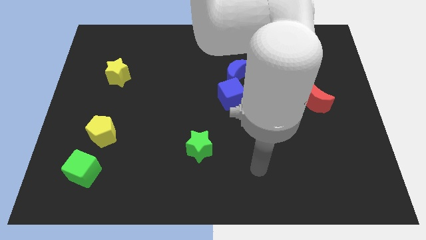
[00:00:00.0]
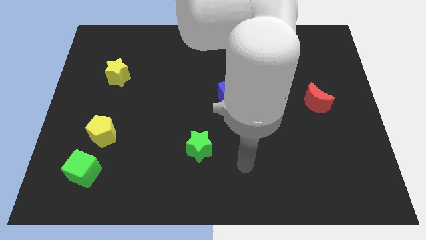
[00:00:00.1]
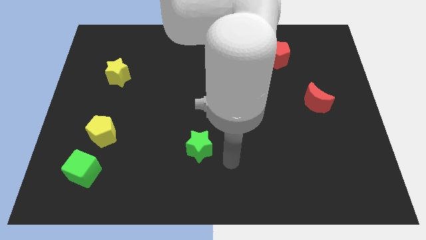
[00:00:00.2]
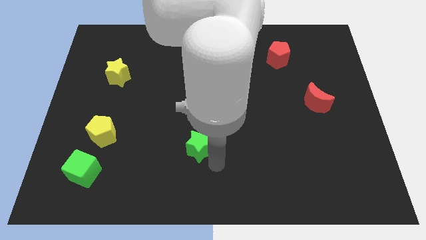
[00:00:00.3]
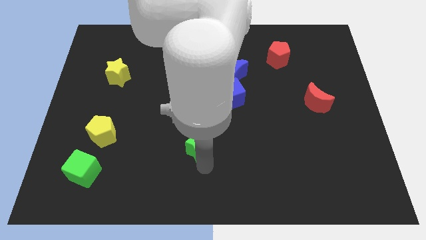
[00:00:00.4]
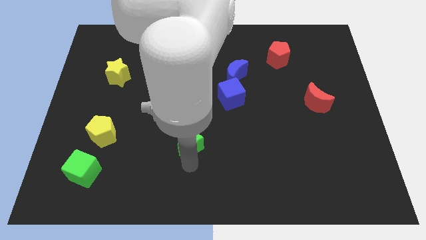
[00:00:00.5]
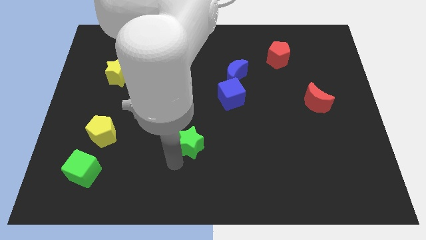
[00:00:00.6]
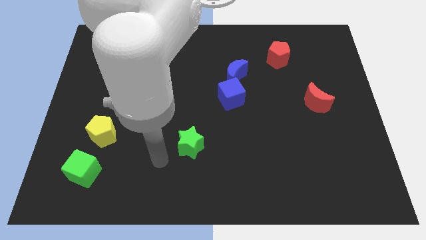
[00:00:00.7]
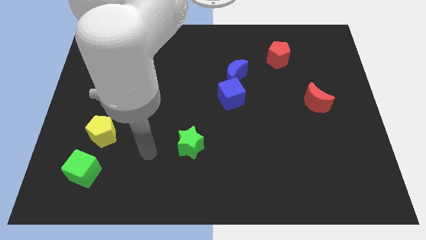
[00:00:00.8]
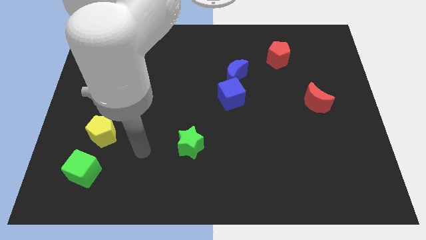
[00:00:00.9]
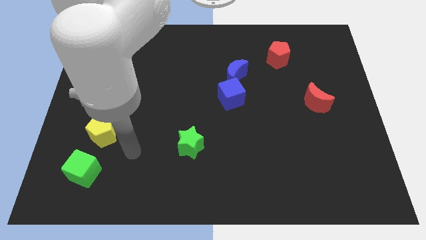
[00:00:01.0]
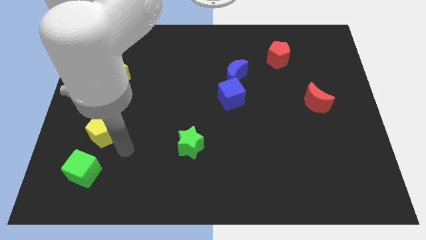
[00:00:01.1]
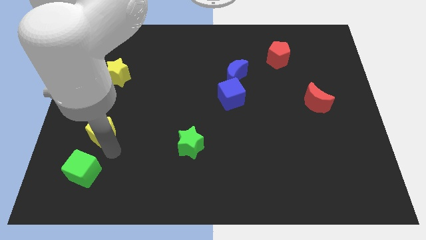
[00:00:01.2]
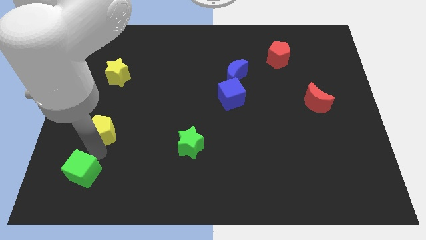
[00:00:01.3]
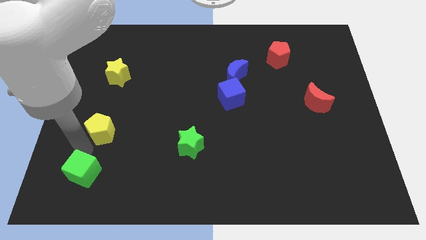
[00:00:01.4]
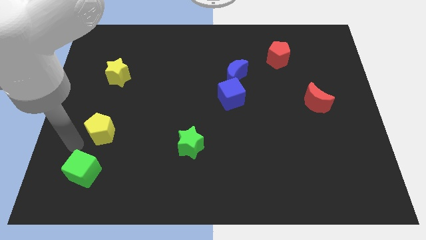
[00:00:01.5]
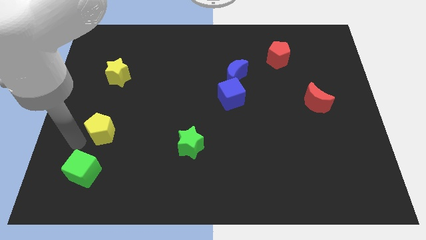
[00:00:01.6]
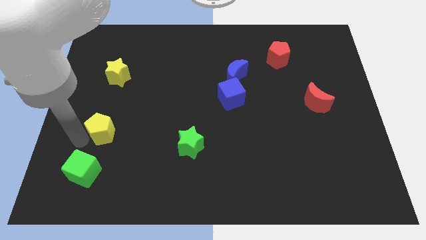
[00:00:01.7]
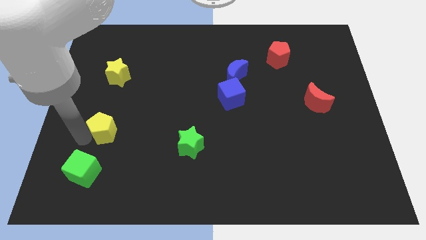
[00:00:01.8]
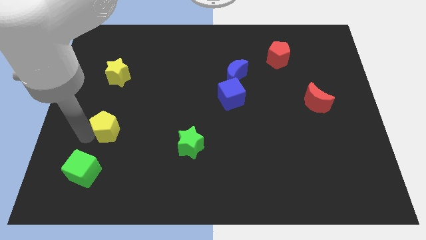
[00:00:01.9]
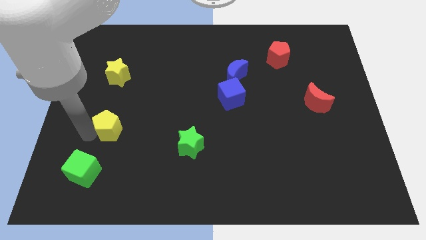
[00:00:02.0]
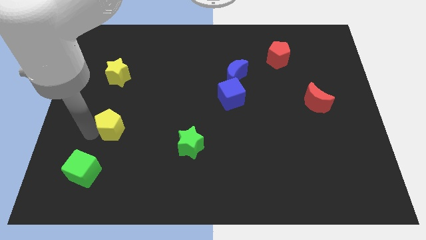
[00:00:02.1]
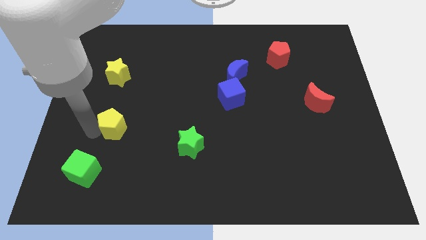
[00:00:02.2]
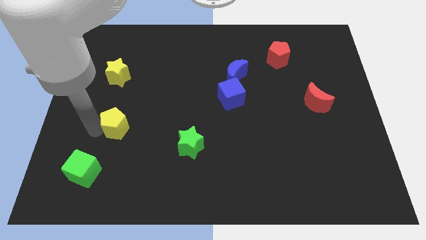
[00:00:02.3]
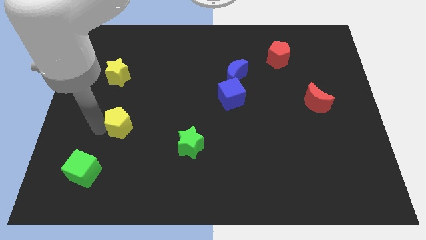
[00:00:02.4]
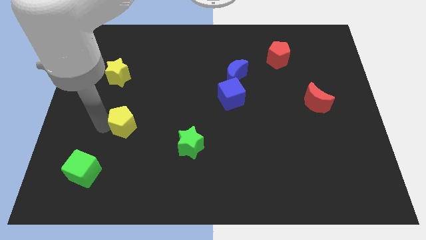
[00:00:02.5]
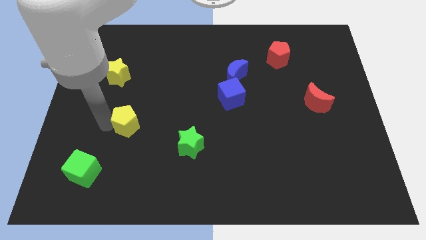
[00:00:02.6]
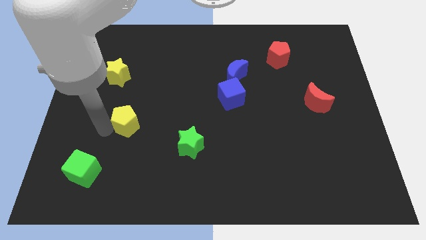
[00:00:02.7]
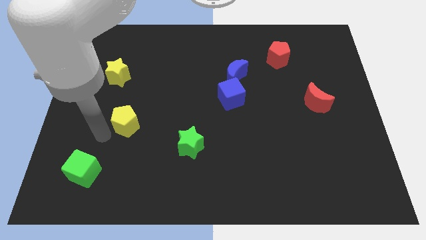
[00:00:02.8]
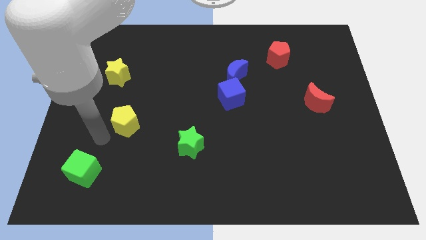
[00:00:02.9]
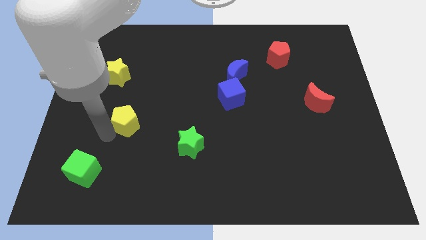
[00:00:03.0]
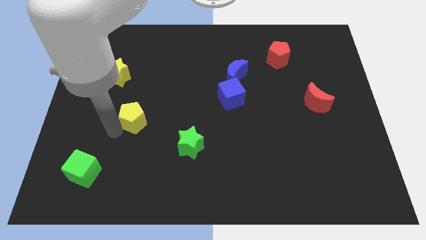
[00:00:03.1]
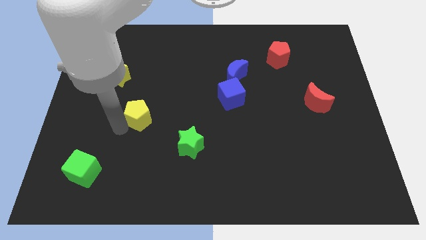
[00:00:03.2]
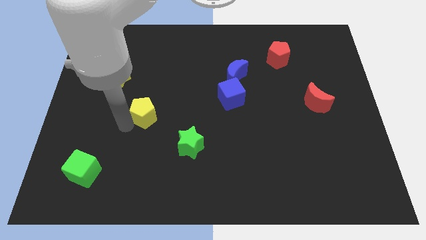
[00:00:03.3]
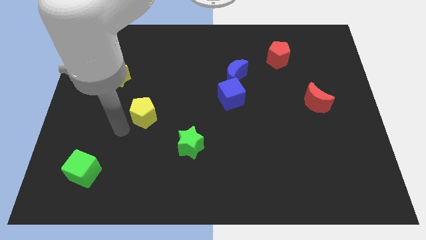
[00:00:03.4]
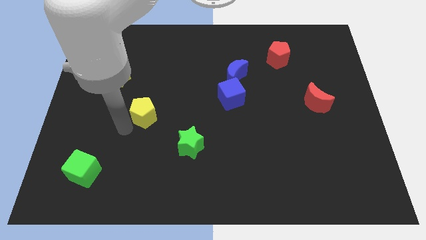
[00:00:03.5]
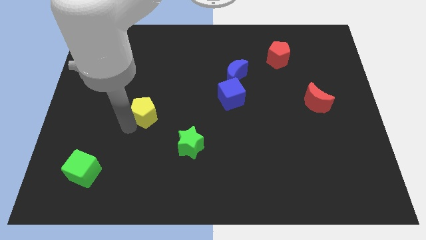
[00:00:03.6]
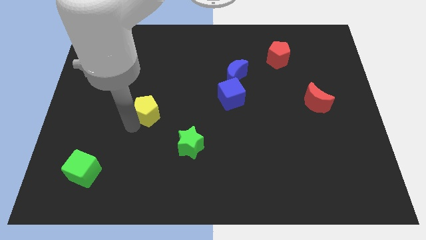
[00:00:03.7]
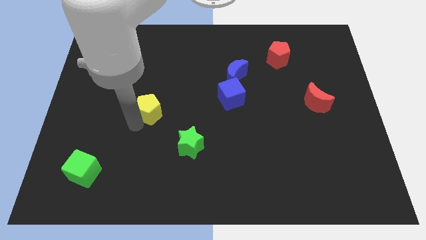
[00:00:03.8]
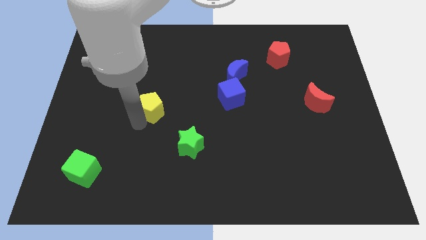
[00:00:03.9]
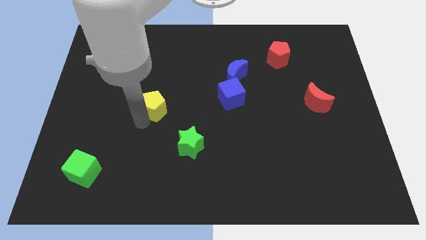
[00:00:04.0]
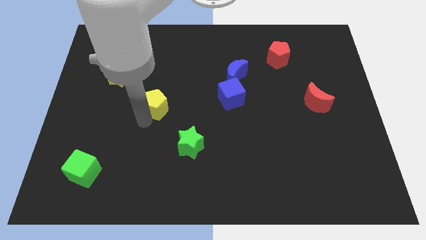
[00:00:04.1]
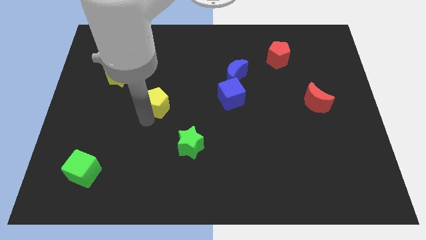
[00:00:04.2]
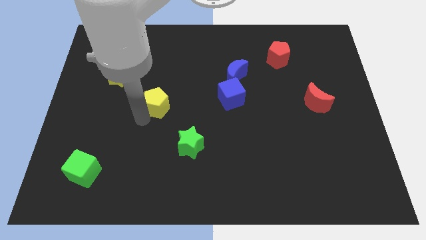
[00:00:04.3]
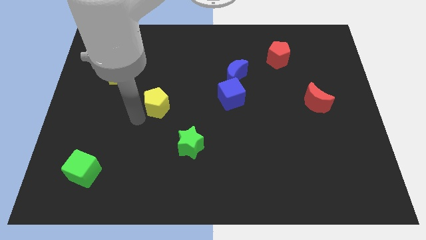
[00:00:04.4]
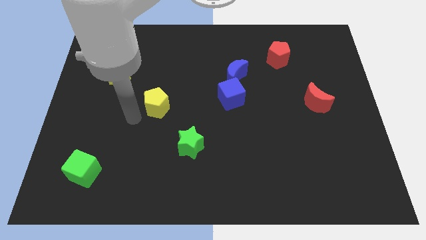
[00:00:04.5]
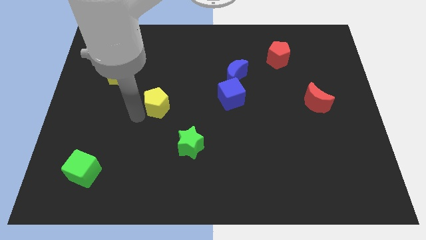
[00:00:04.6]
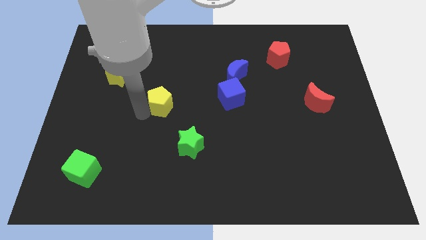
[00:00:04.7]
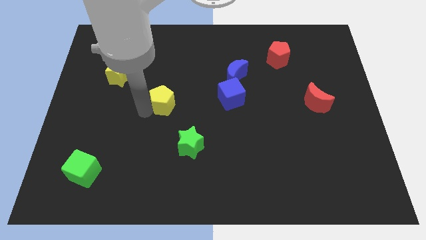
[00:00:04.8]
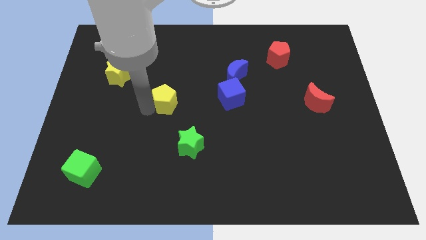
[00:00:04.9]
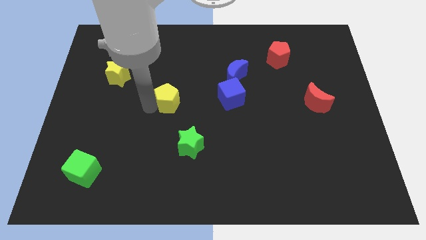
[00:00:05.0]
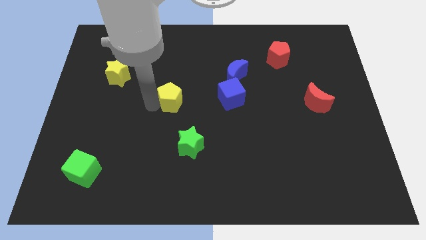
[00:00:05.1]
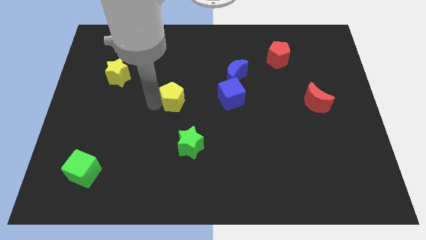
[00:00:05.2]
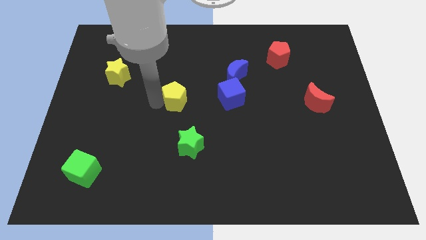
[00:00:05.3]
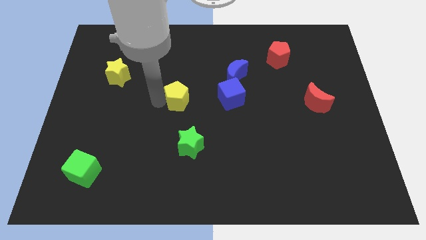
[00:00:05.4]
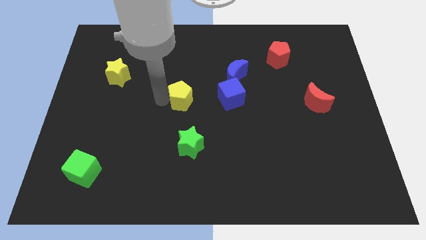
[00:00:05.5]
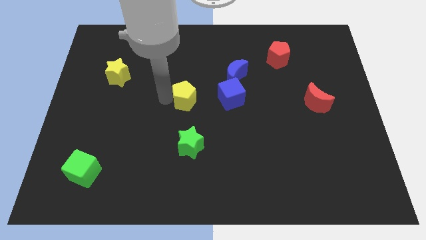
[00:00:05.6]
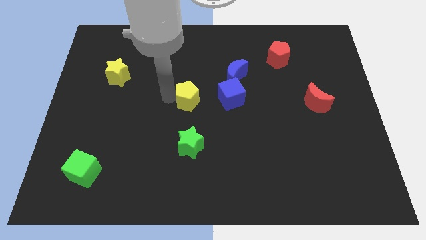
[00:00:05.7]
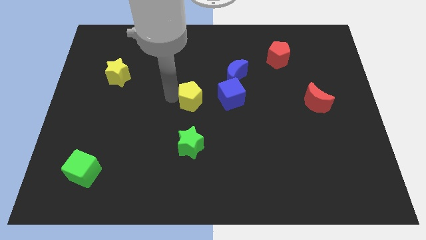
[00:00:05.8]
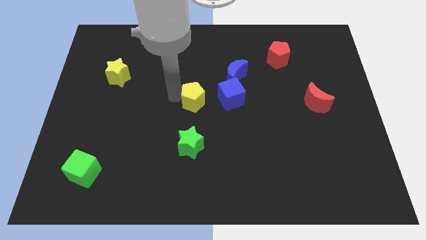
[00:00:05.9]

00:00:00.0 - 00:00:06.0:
move the yellow pentagon to the bottom left side of the blue moon
